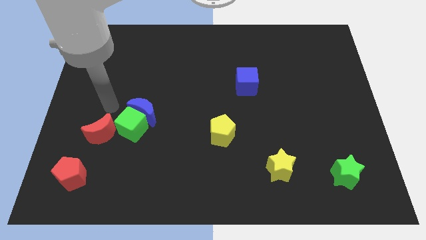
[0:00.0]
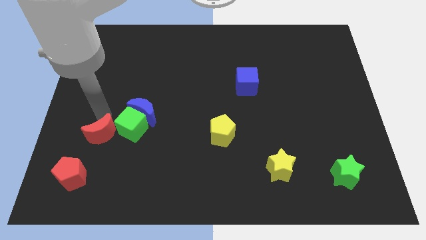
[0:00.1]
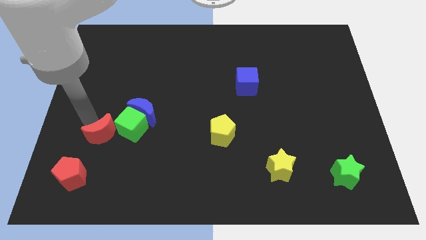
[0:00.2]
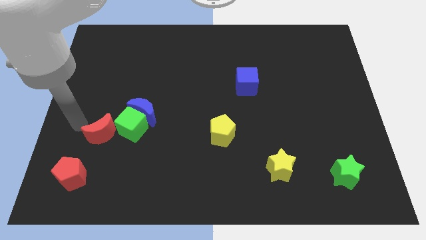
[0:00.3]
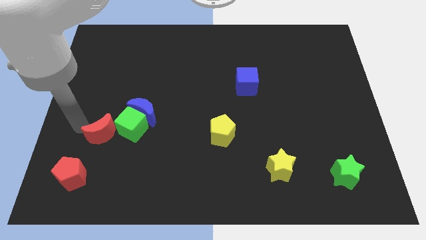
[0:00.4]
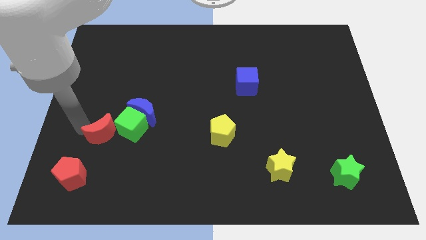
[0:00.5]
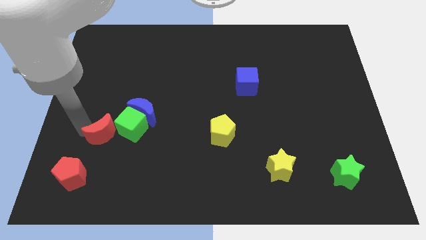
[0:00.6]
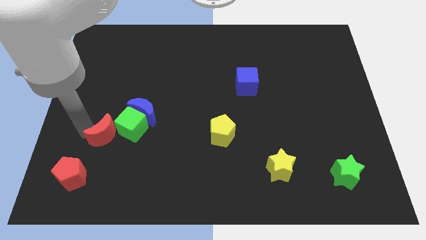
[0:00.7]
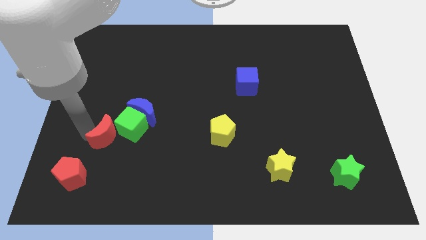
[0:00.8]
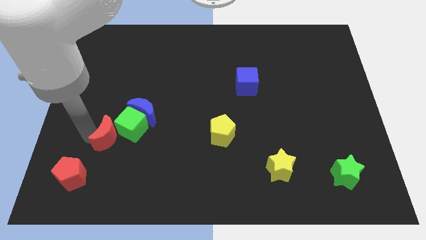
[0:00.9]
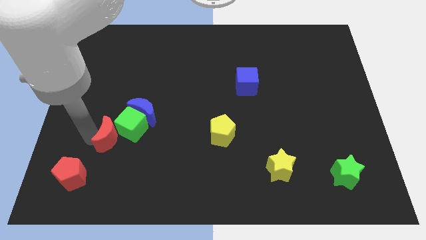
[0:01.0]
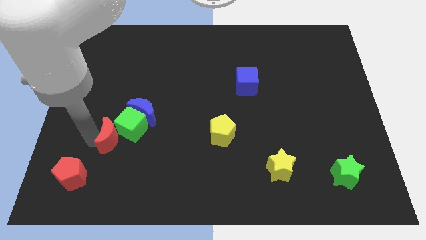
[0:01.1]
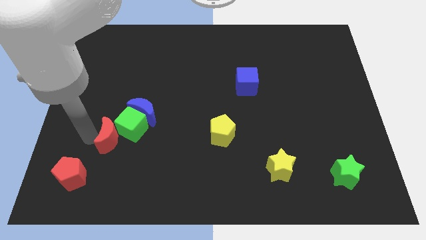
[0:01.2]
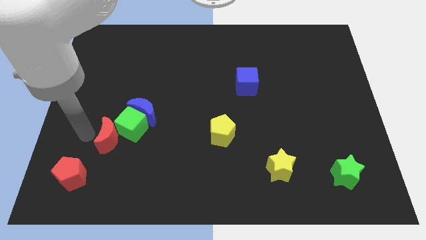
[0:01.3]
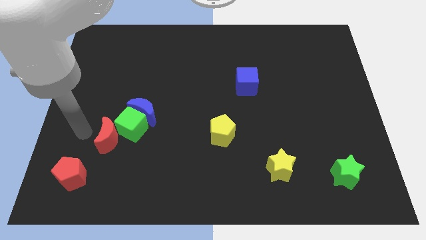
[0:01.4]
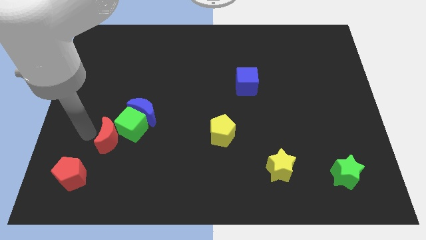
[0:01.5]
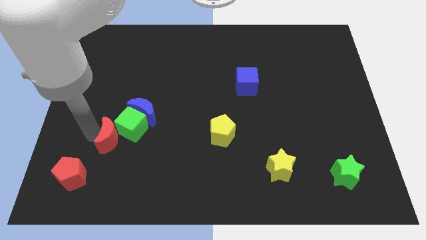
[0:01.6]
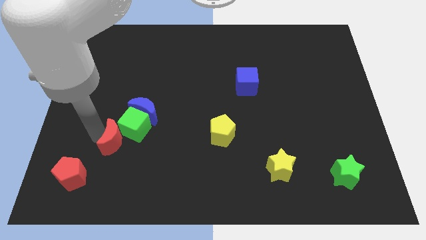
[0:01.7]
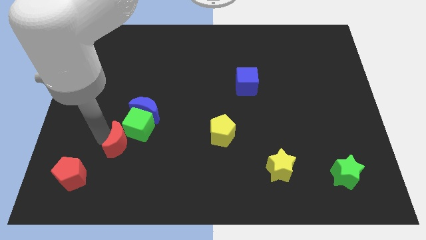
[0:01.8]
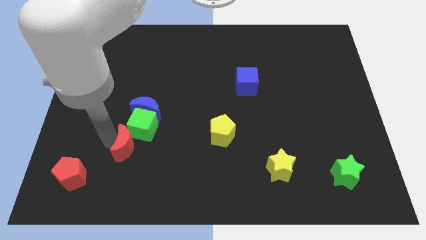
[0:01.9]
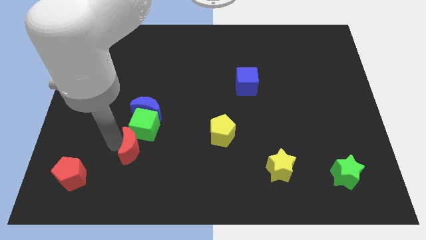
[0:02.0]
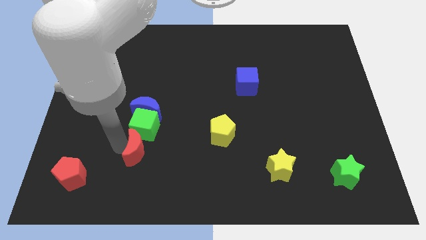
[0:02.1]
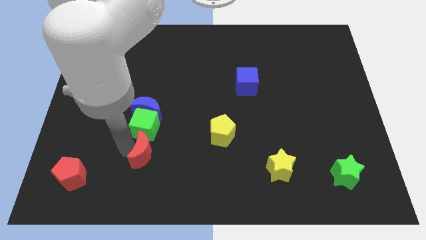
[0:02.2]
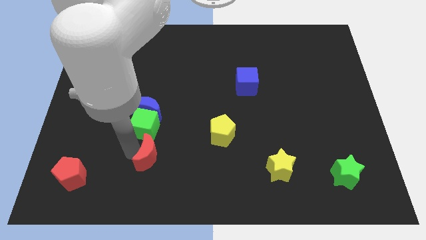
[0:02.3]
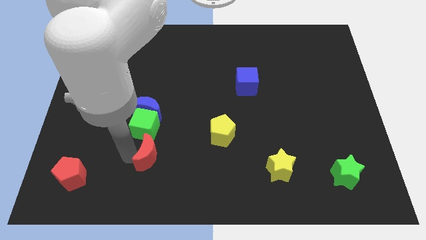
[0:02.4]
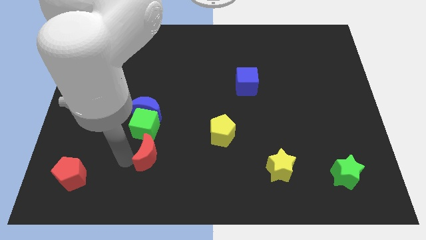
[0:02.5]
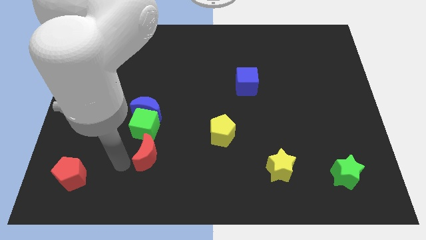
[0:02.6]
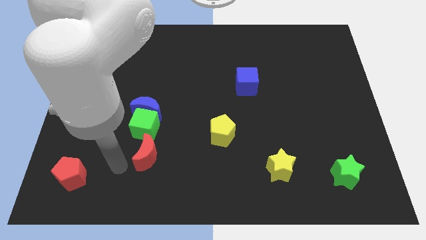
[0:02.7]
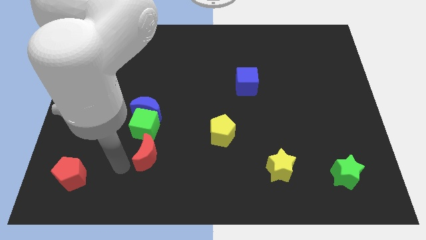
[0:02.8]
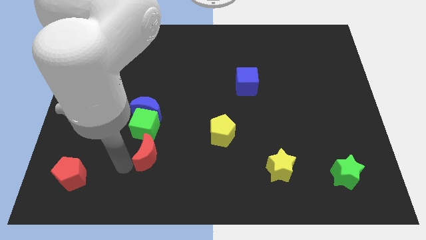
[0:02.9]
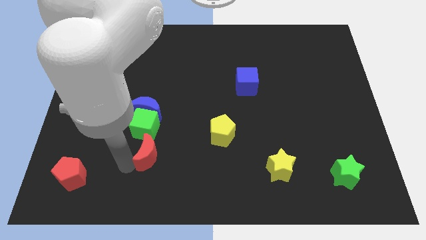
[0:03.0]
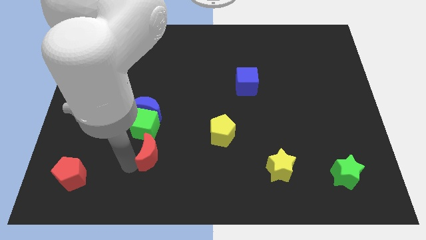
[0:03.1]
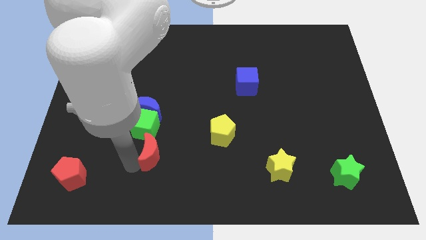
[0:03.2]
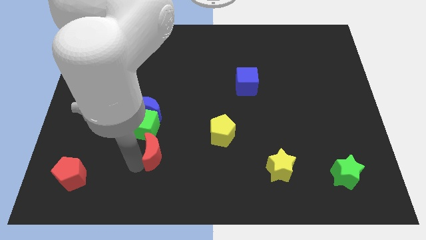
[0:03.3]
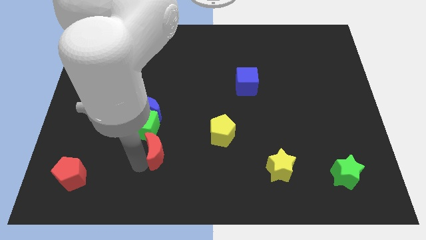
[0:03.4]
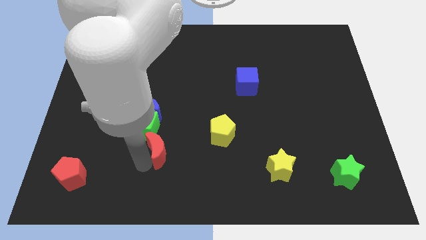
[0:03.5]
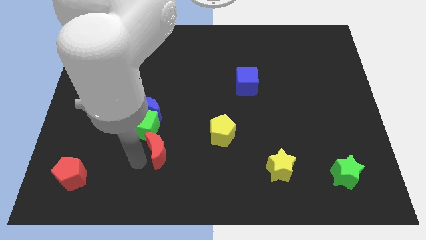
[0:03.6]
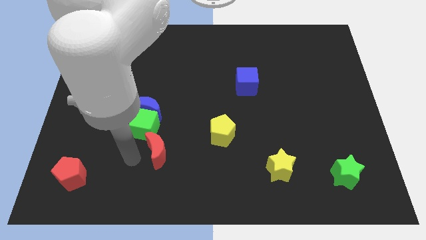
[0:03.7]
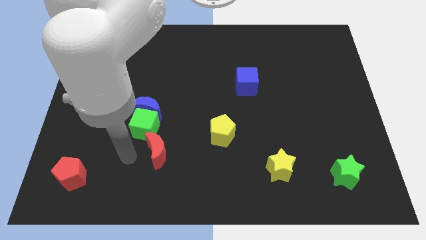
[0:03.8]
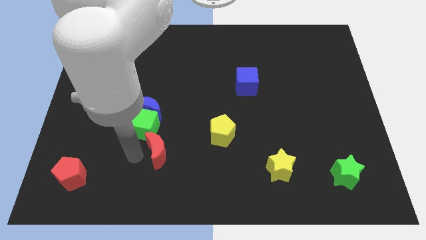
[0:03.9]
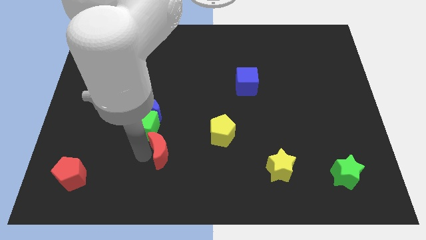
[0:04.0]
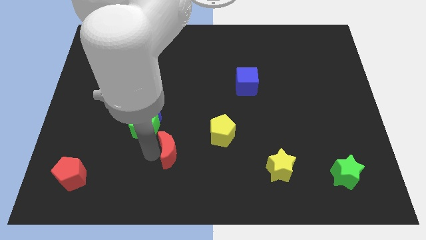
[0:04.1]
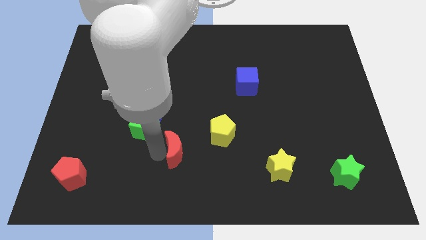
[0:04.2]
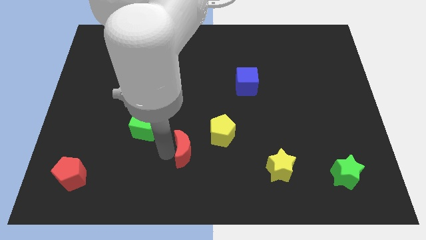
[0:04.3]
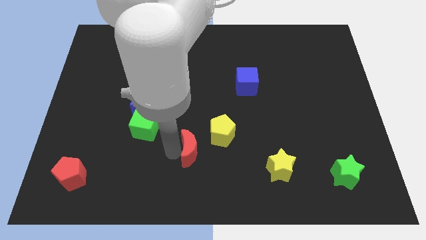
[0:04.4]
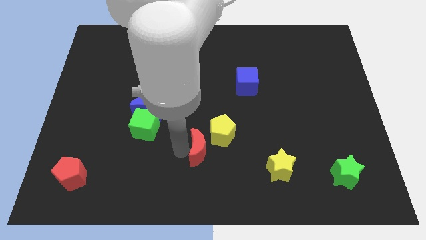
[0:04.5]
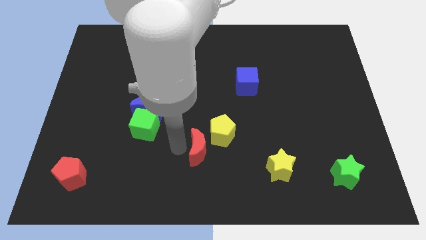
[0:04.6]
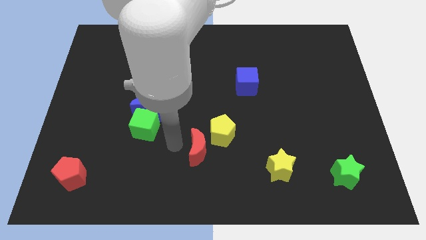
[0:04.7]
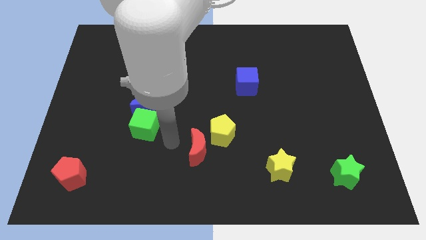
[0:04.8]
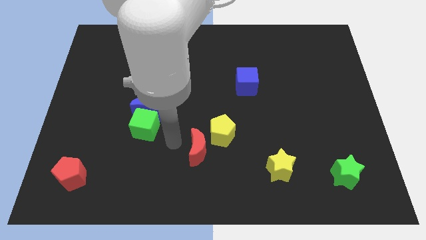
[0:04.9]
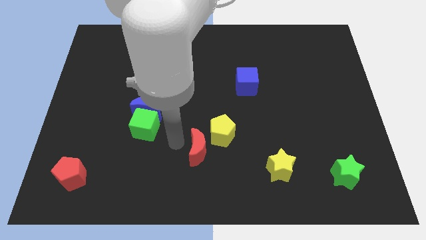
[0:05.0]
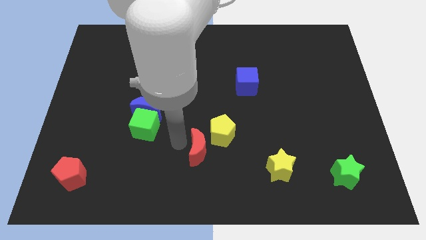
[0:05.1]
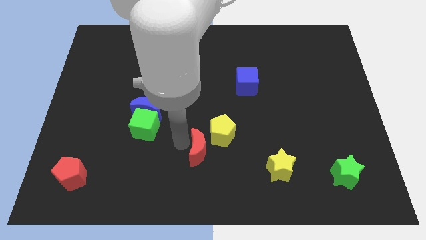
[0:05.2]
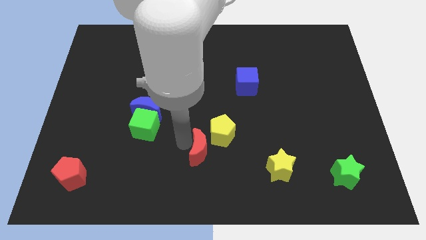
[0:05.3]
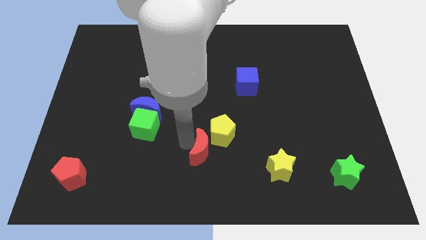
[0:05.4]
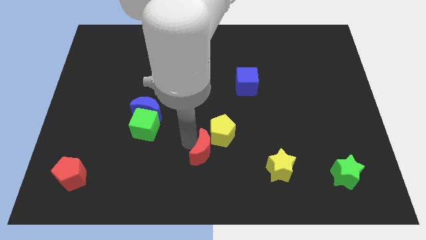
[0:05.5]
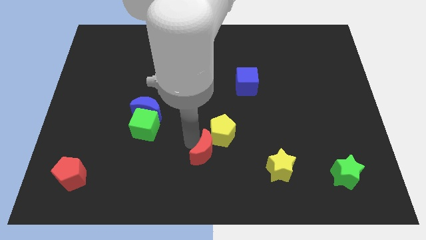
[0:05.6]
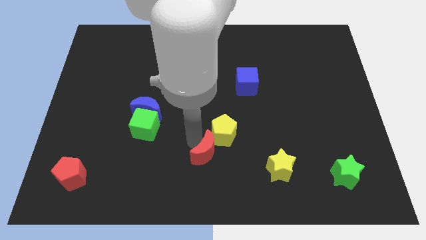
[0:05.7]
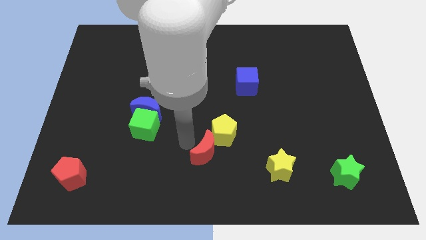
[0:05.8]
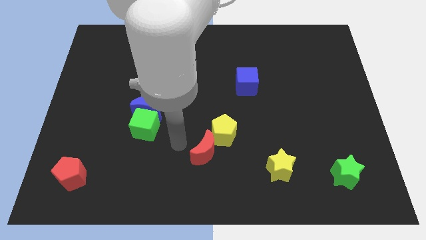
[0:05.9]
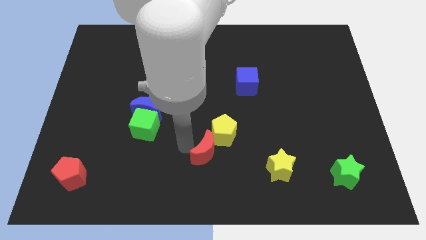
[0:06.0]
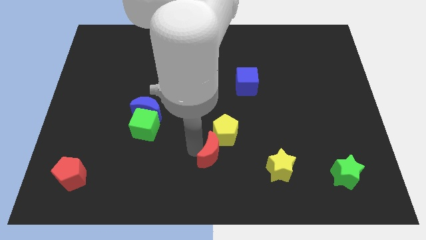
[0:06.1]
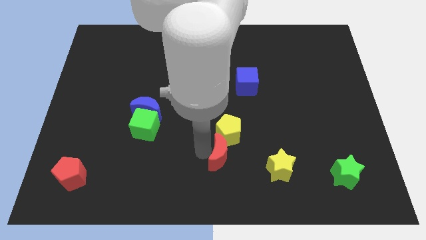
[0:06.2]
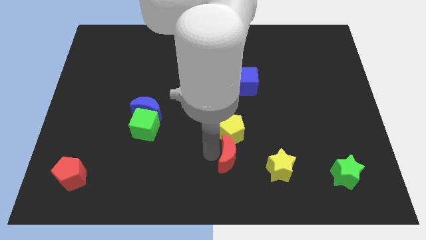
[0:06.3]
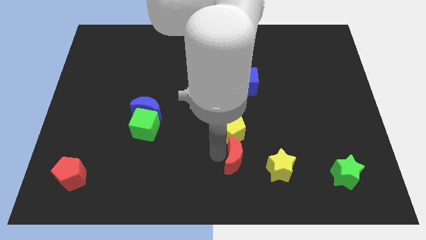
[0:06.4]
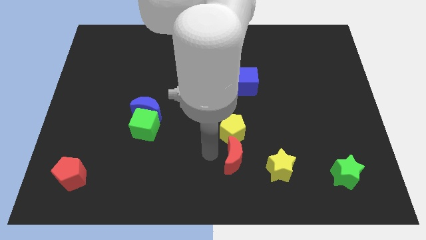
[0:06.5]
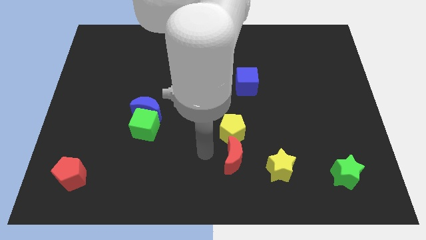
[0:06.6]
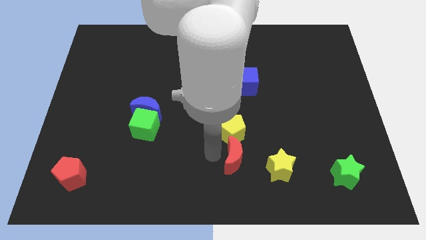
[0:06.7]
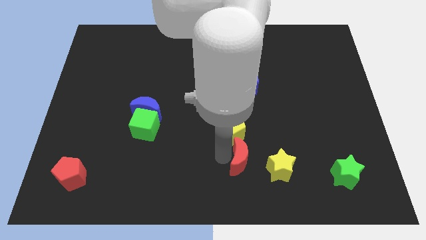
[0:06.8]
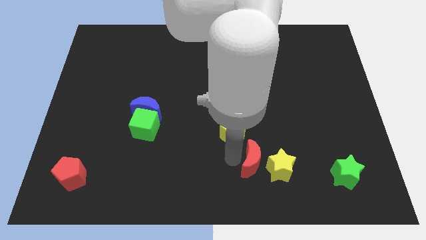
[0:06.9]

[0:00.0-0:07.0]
put the red moon towards the yellow star

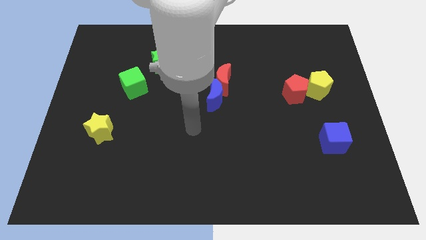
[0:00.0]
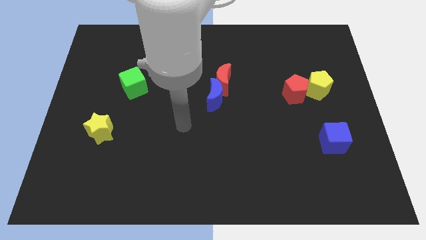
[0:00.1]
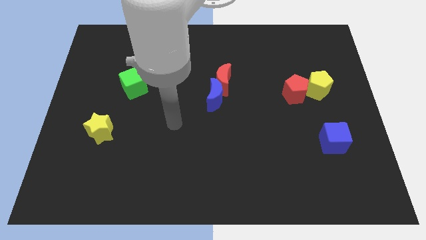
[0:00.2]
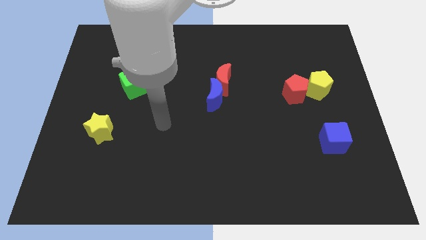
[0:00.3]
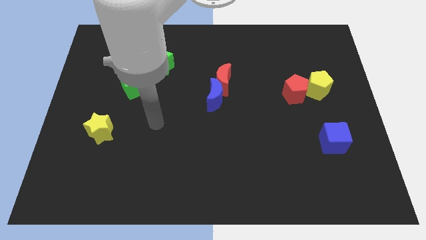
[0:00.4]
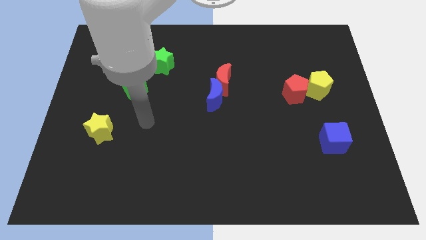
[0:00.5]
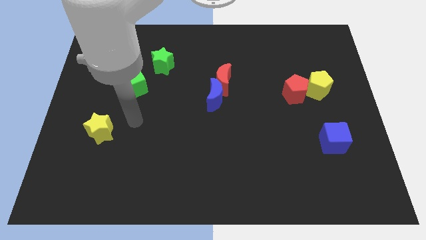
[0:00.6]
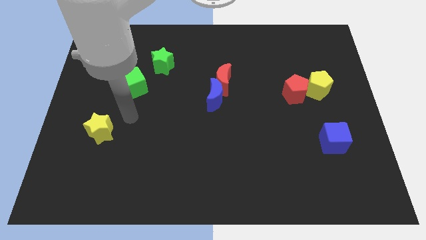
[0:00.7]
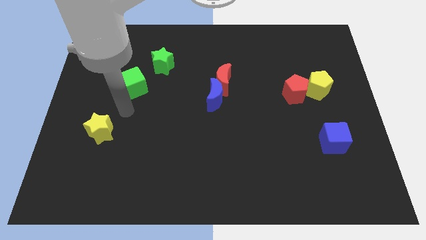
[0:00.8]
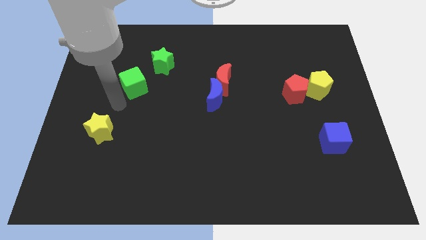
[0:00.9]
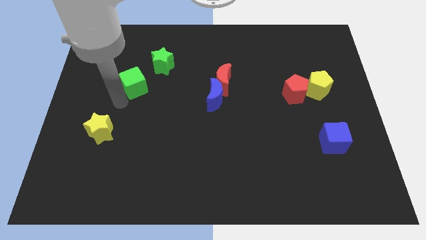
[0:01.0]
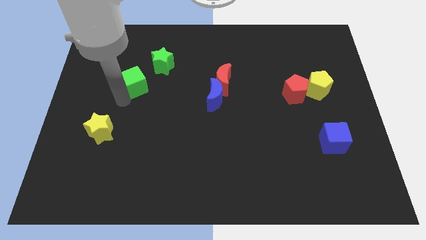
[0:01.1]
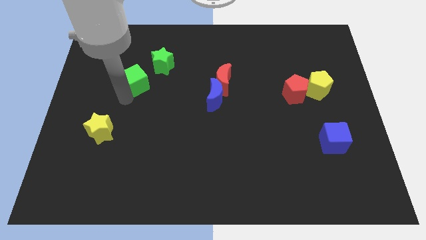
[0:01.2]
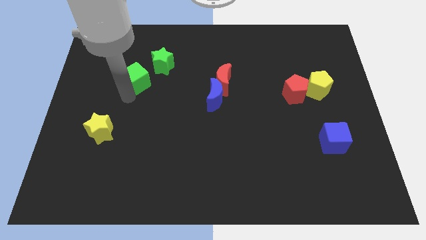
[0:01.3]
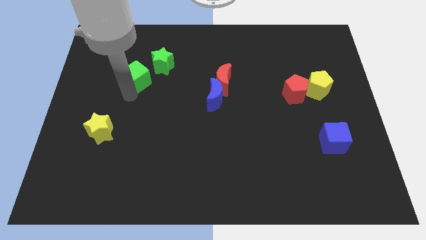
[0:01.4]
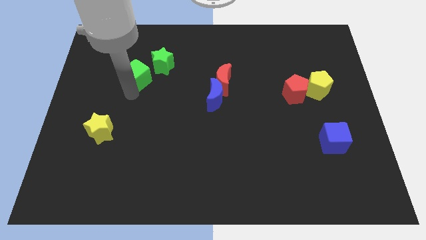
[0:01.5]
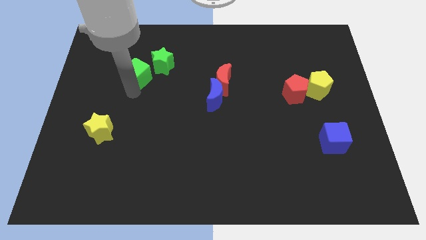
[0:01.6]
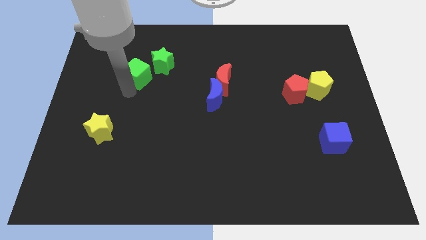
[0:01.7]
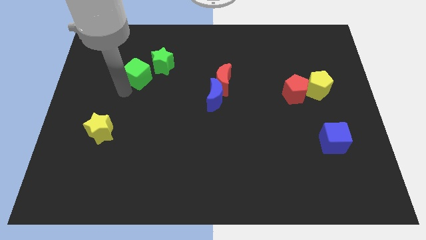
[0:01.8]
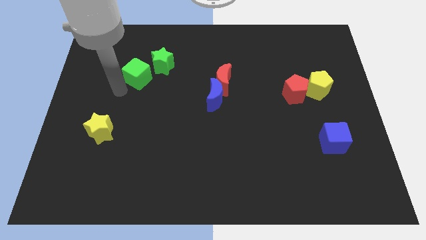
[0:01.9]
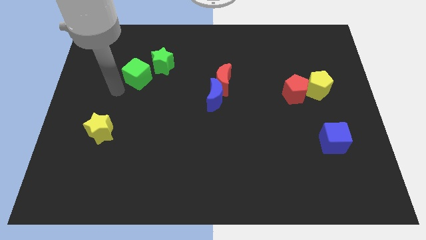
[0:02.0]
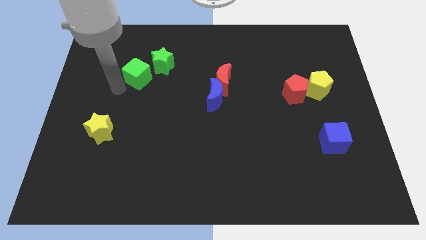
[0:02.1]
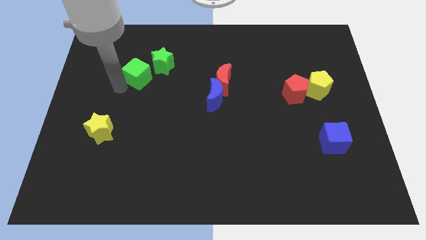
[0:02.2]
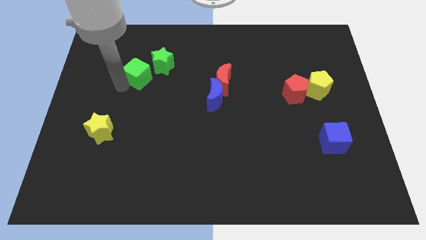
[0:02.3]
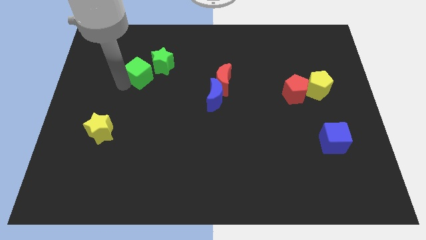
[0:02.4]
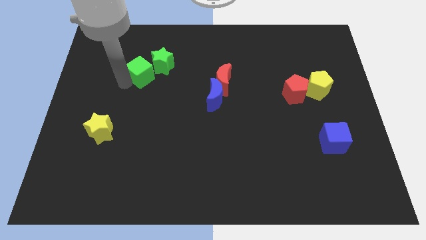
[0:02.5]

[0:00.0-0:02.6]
move the green cube close to the green star
